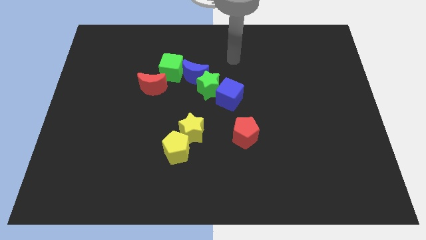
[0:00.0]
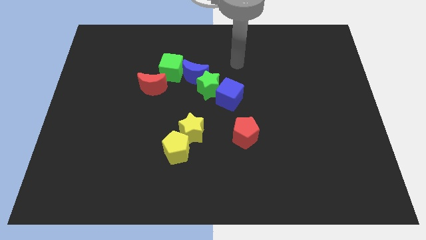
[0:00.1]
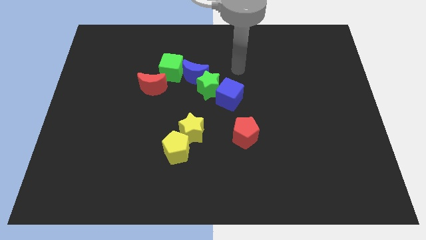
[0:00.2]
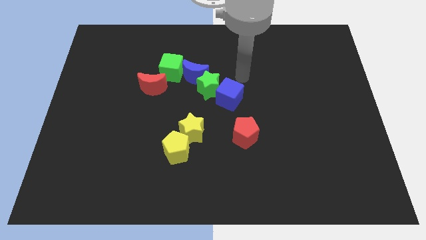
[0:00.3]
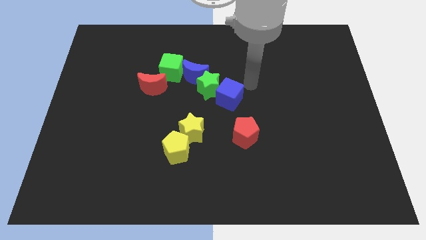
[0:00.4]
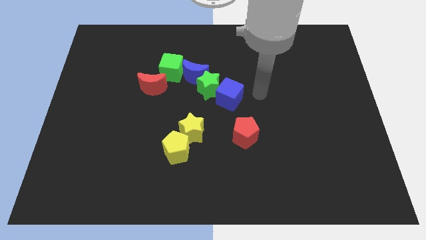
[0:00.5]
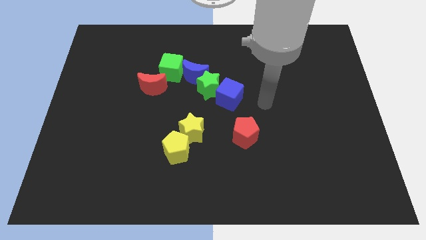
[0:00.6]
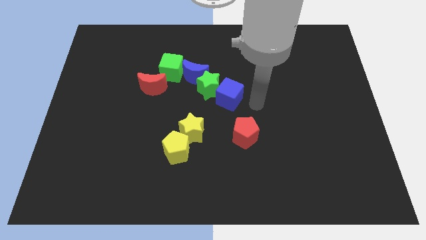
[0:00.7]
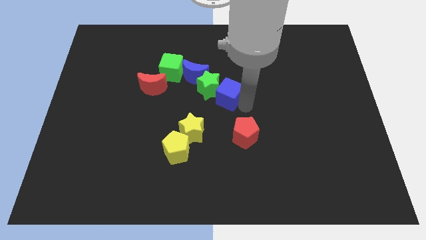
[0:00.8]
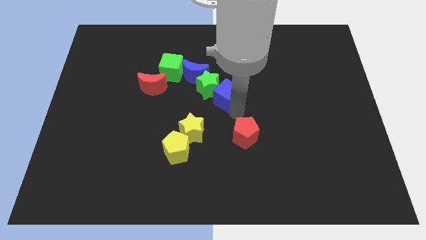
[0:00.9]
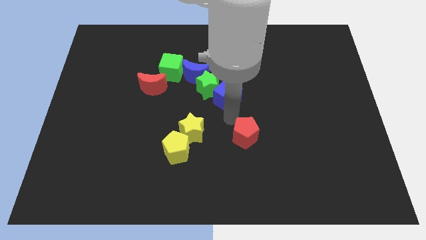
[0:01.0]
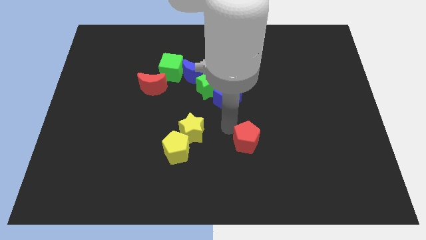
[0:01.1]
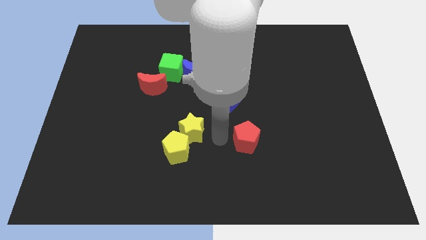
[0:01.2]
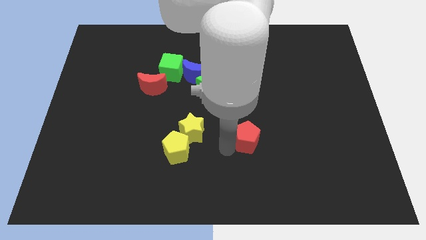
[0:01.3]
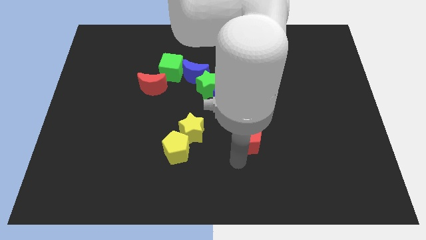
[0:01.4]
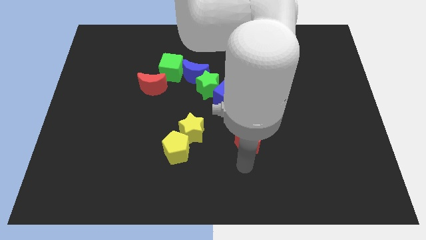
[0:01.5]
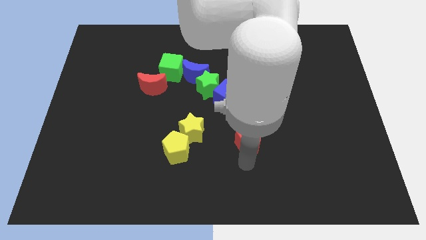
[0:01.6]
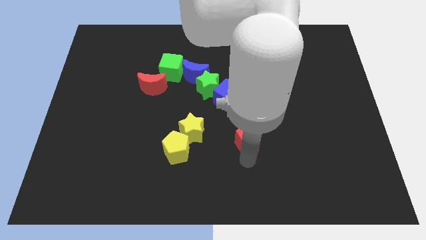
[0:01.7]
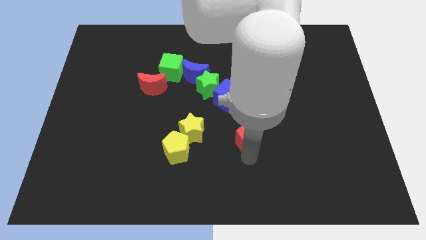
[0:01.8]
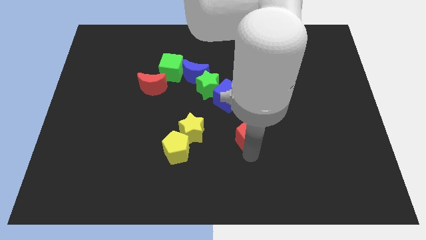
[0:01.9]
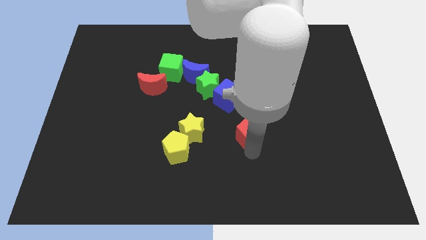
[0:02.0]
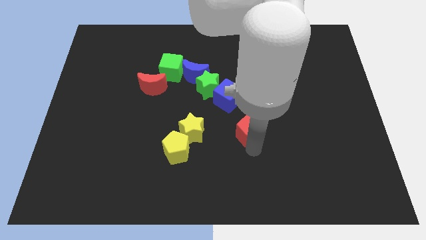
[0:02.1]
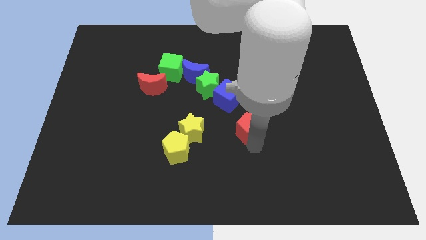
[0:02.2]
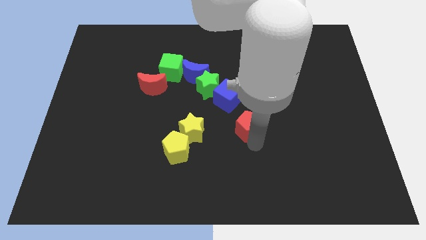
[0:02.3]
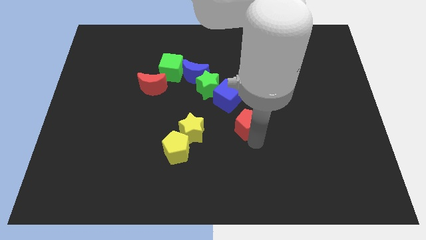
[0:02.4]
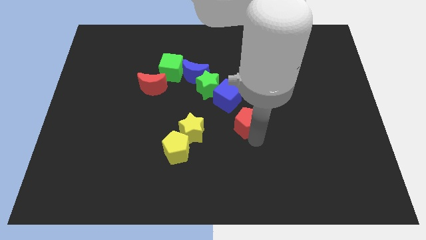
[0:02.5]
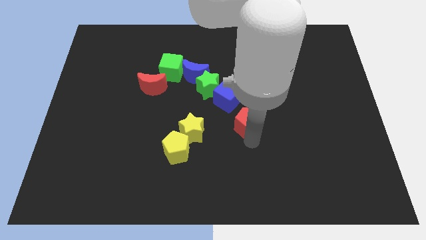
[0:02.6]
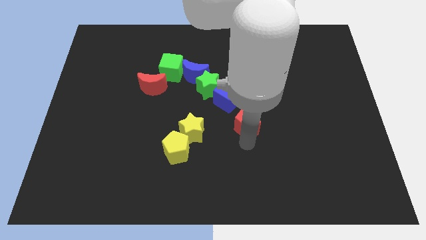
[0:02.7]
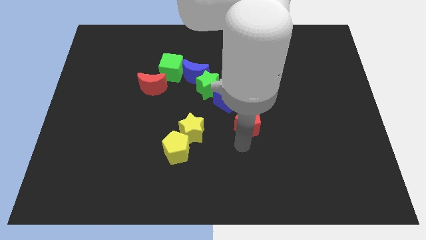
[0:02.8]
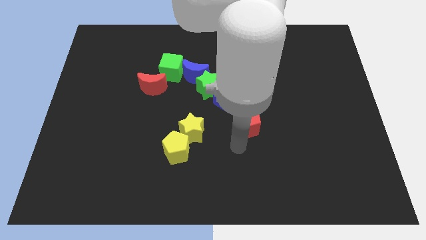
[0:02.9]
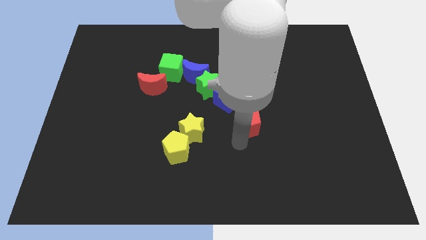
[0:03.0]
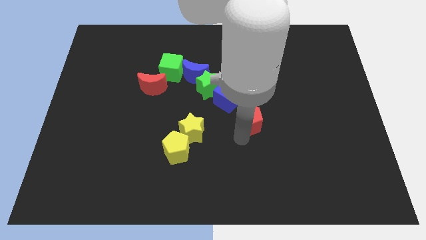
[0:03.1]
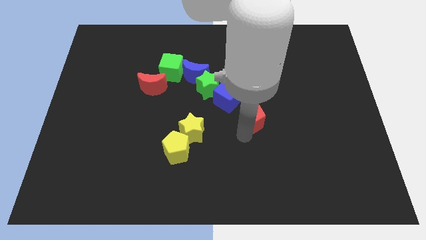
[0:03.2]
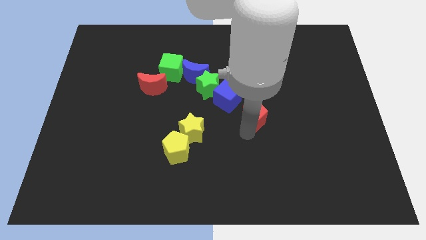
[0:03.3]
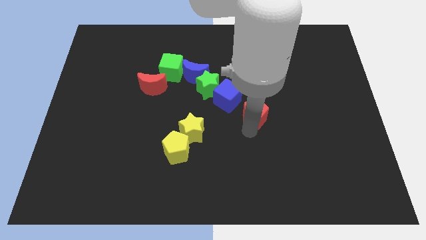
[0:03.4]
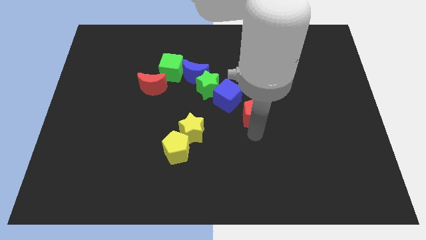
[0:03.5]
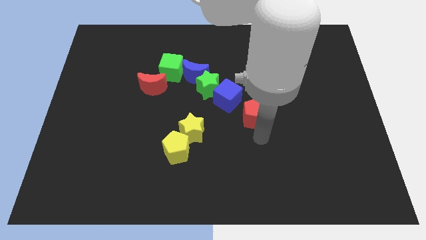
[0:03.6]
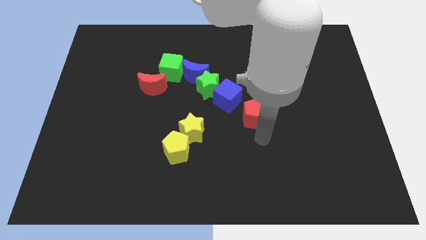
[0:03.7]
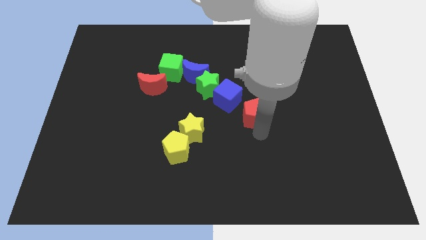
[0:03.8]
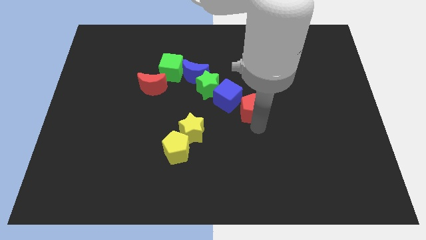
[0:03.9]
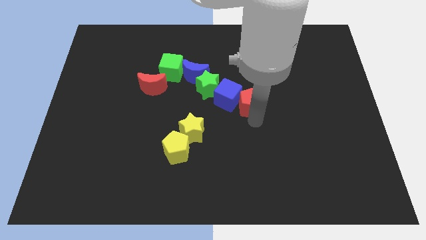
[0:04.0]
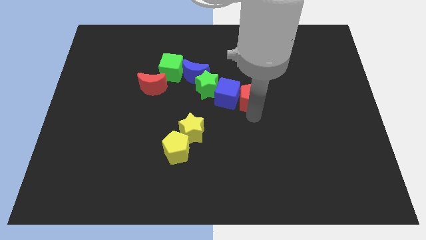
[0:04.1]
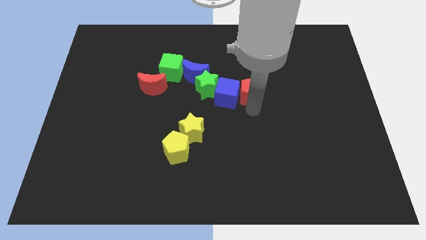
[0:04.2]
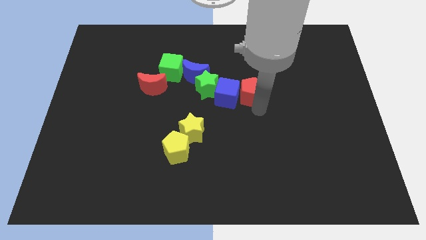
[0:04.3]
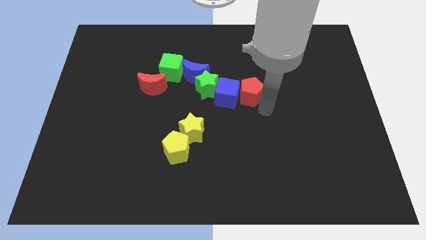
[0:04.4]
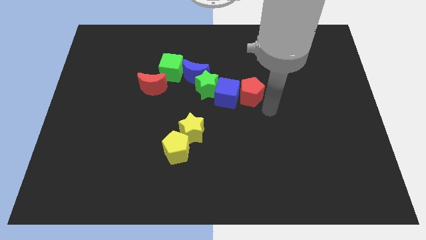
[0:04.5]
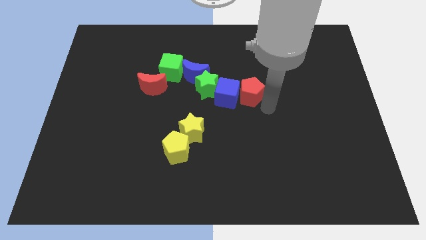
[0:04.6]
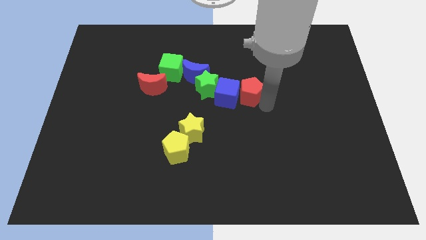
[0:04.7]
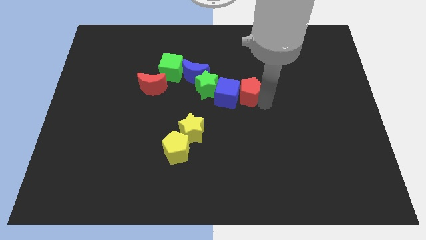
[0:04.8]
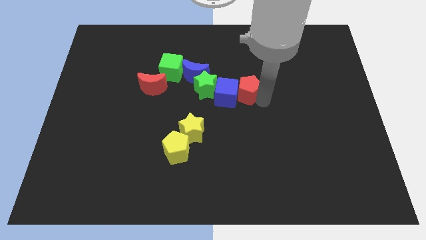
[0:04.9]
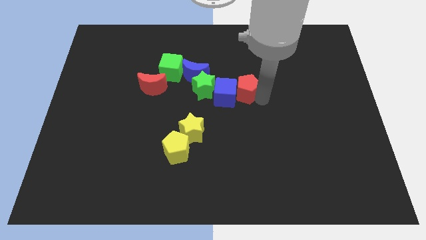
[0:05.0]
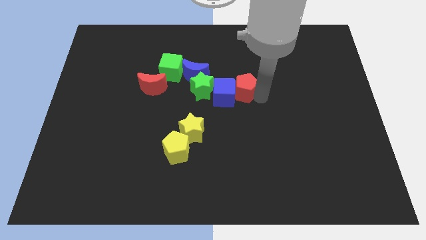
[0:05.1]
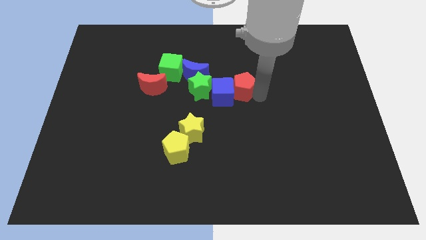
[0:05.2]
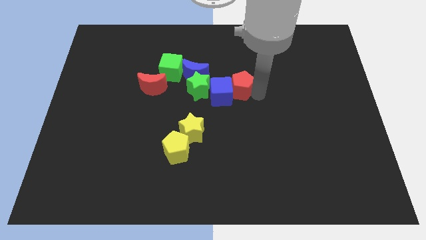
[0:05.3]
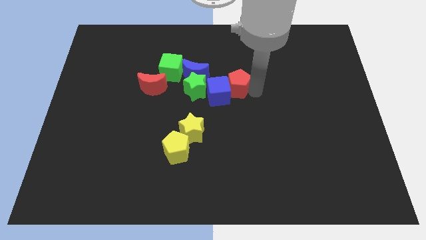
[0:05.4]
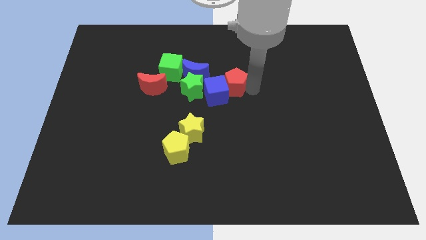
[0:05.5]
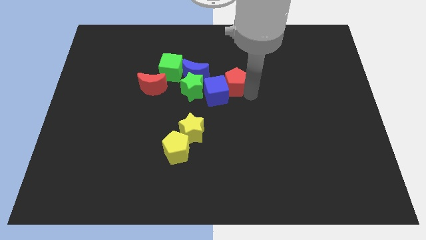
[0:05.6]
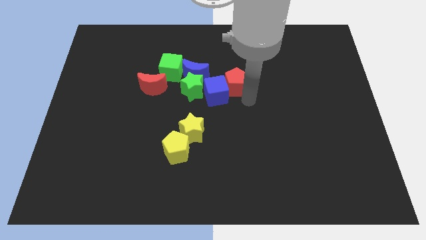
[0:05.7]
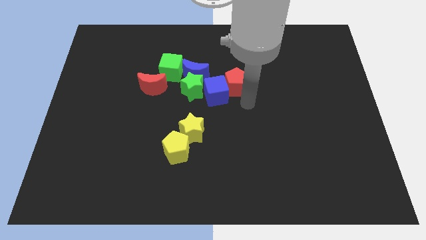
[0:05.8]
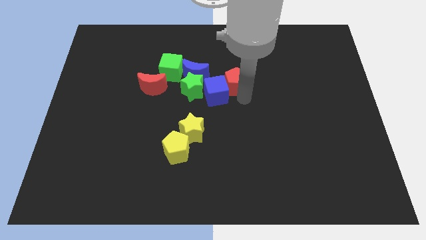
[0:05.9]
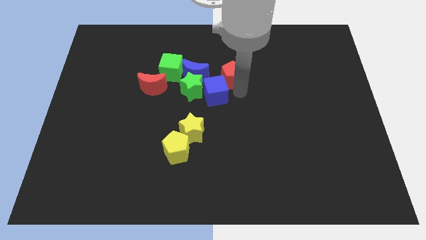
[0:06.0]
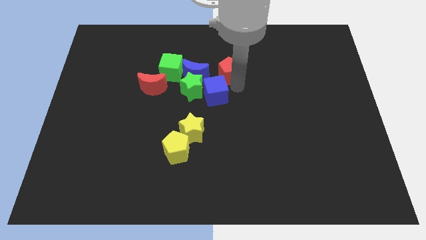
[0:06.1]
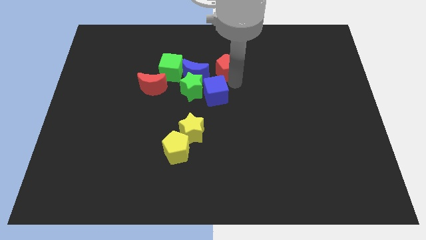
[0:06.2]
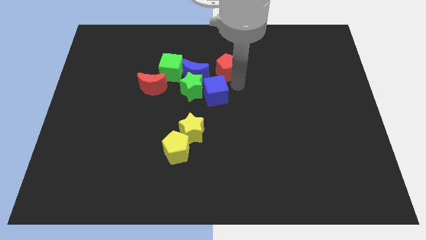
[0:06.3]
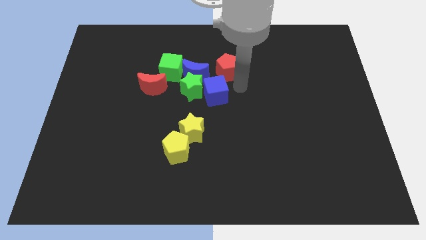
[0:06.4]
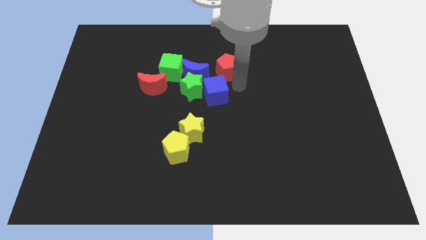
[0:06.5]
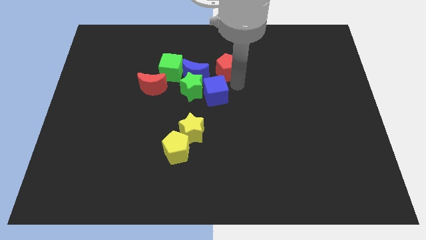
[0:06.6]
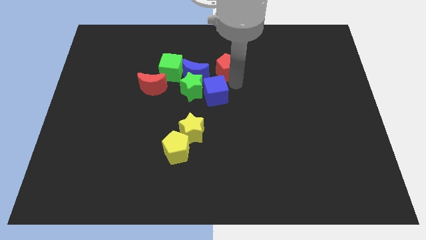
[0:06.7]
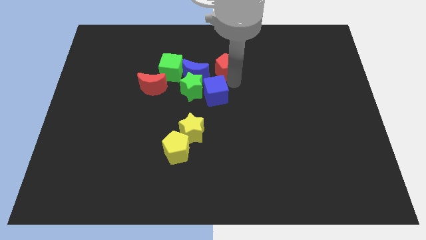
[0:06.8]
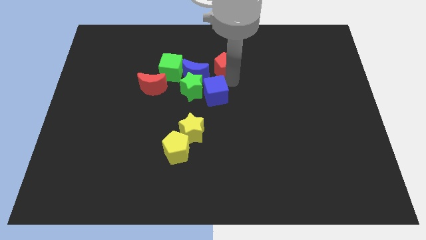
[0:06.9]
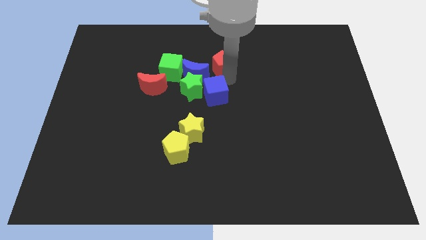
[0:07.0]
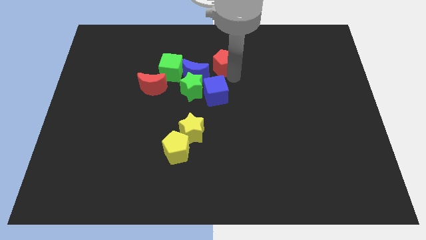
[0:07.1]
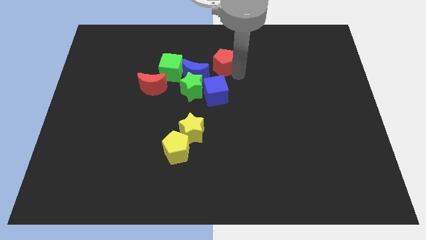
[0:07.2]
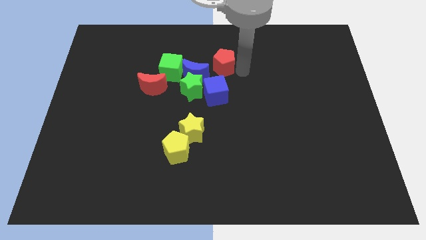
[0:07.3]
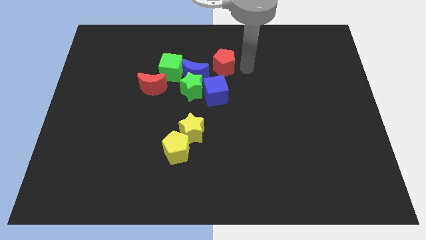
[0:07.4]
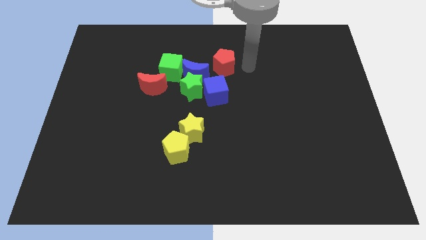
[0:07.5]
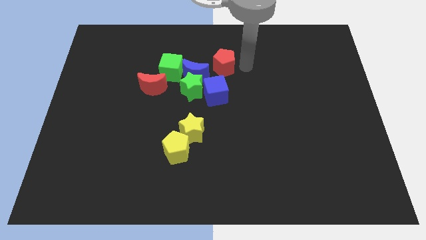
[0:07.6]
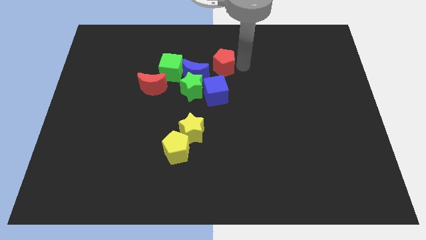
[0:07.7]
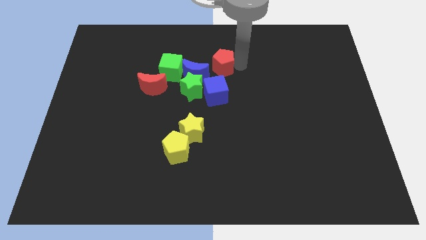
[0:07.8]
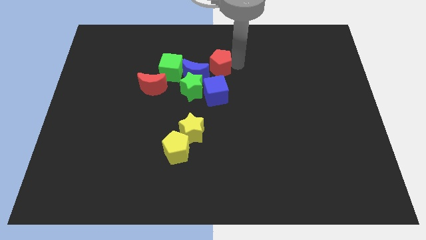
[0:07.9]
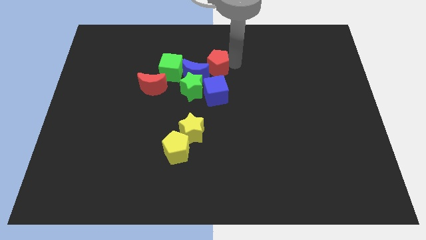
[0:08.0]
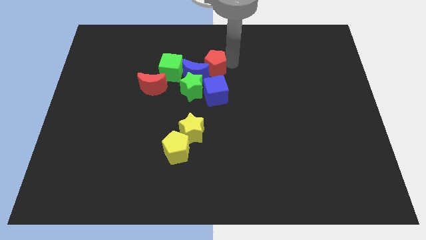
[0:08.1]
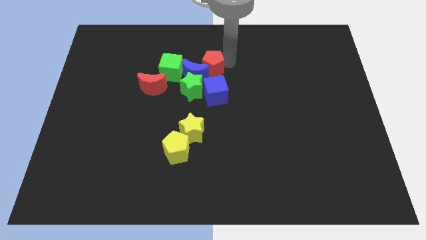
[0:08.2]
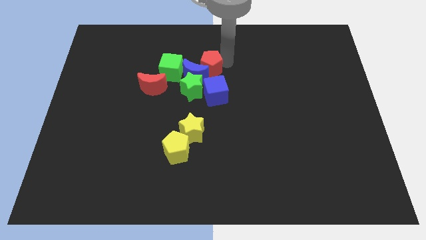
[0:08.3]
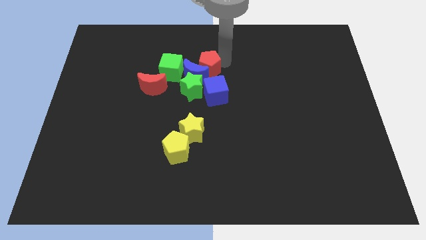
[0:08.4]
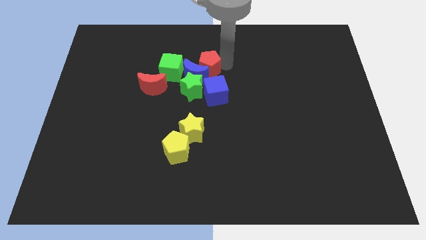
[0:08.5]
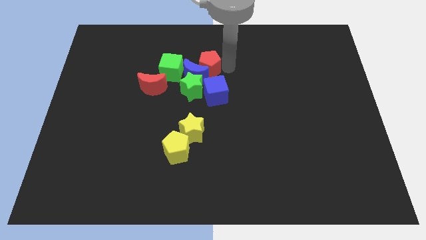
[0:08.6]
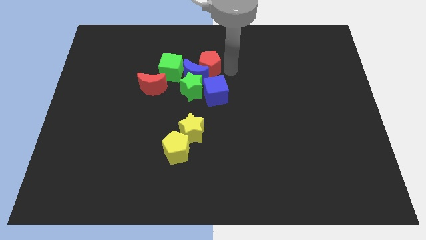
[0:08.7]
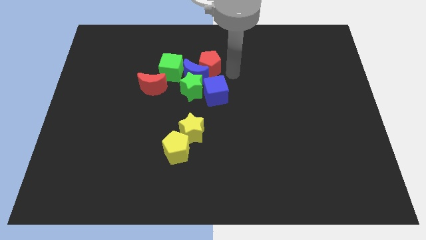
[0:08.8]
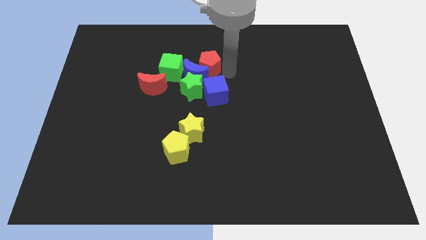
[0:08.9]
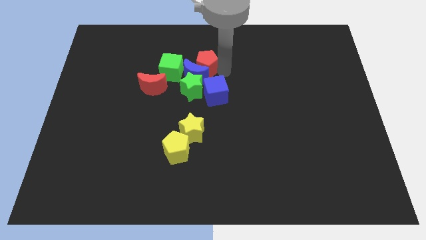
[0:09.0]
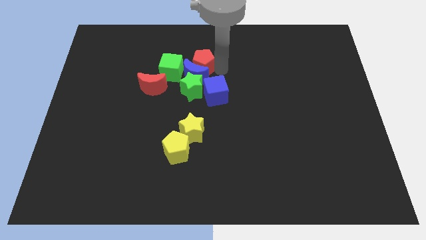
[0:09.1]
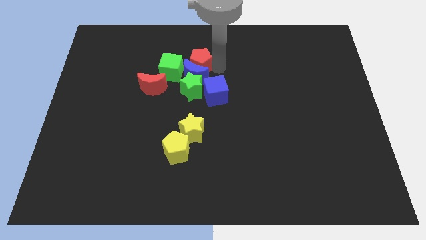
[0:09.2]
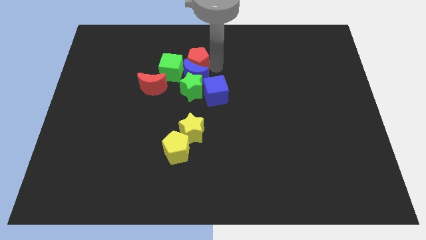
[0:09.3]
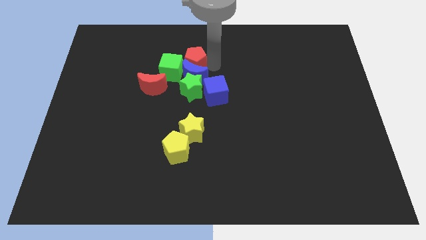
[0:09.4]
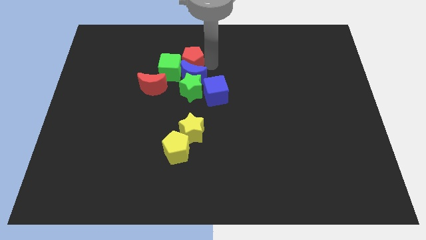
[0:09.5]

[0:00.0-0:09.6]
move the red pentagon to the top right of the red moon
